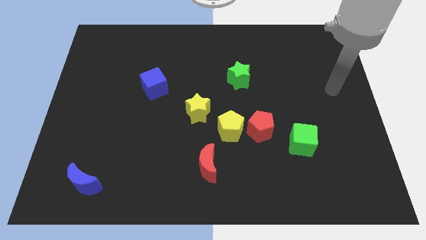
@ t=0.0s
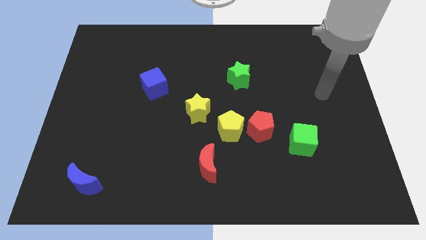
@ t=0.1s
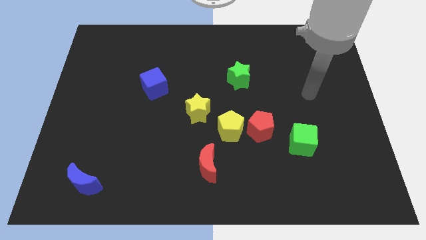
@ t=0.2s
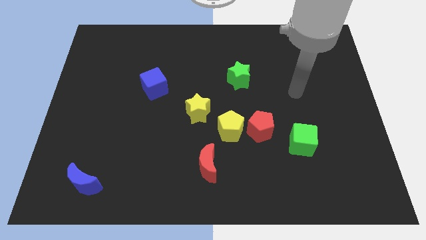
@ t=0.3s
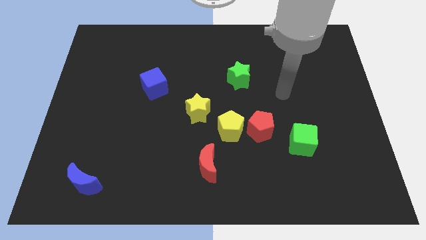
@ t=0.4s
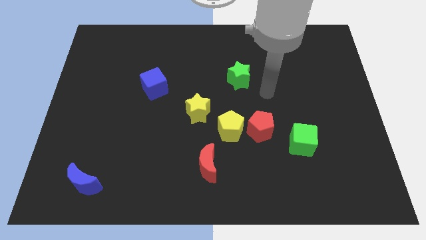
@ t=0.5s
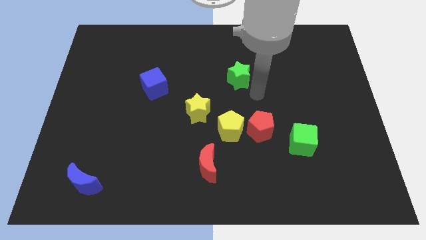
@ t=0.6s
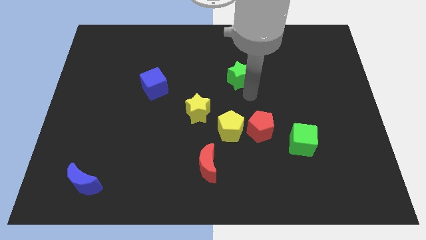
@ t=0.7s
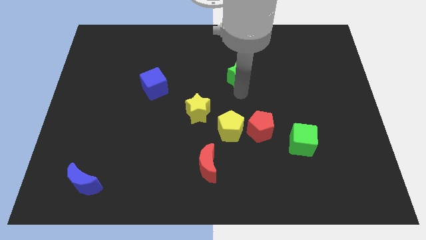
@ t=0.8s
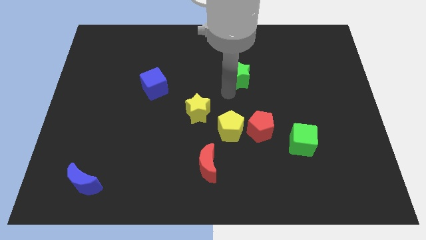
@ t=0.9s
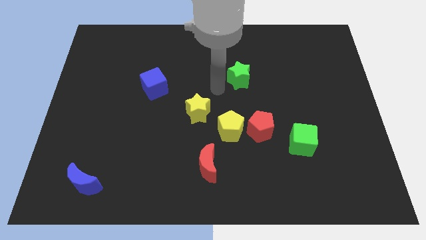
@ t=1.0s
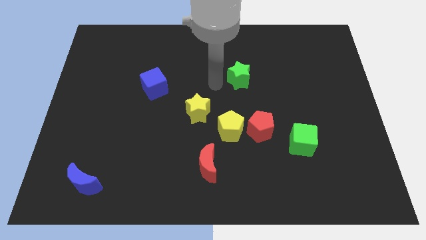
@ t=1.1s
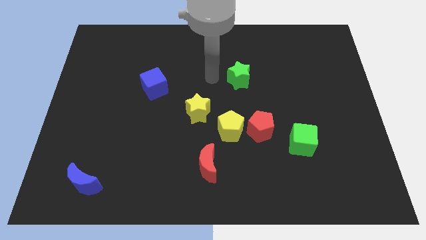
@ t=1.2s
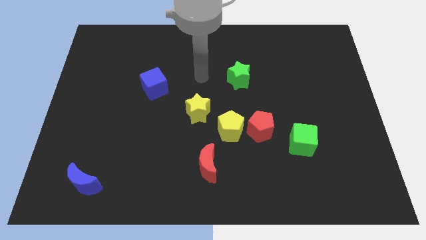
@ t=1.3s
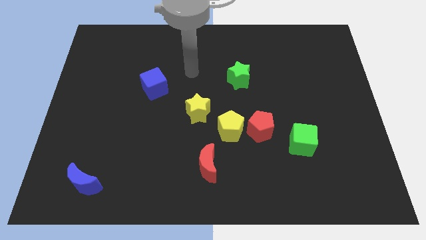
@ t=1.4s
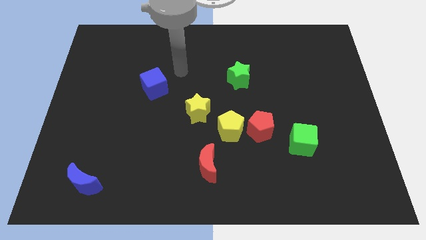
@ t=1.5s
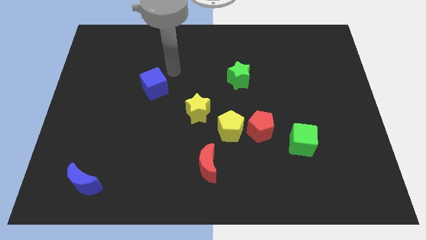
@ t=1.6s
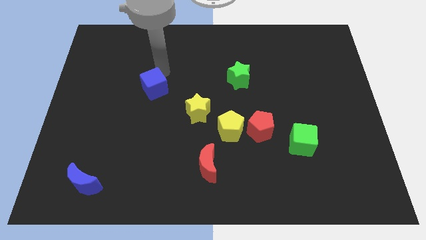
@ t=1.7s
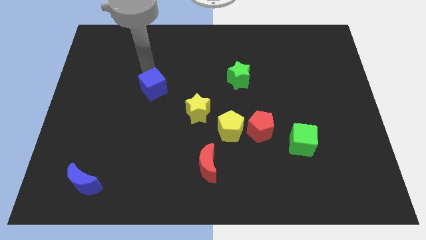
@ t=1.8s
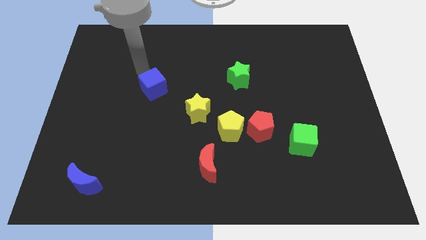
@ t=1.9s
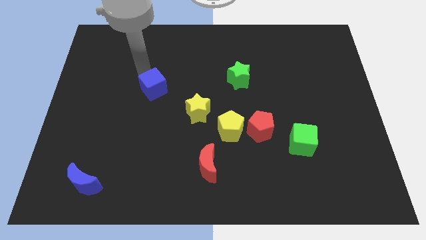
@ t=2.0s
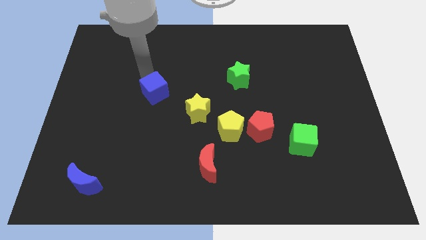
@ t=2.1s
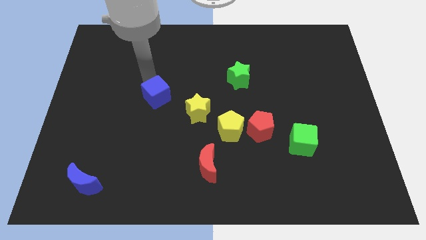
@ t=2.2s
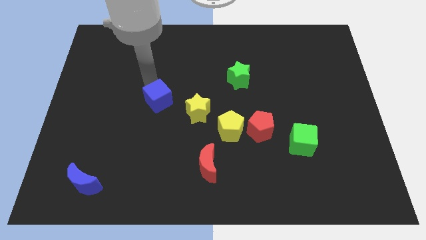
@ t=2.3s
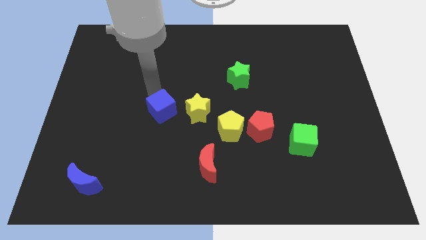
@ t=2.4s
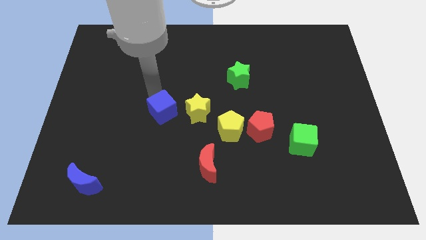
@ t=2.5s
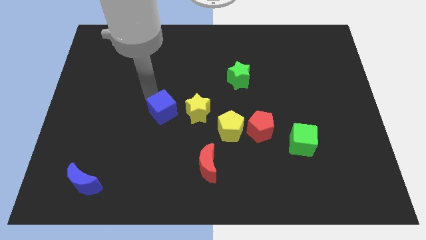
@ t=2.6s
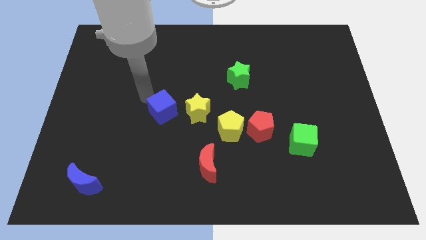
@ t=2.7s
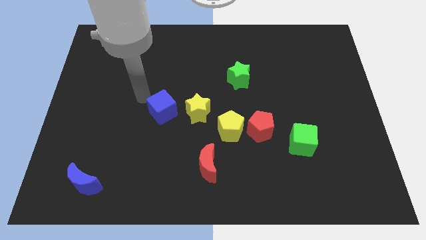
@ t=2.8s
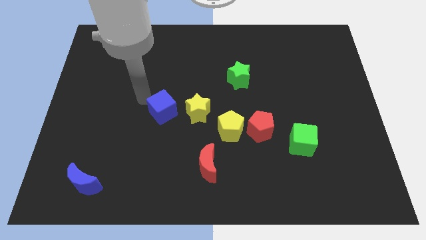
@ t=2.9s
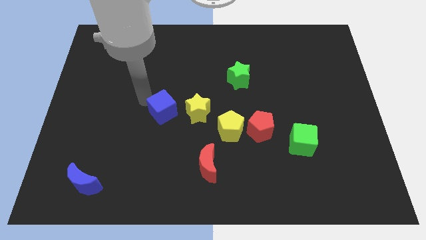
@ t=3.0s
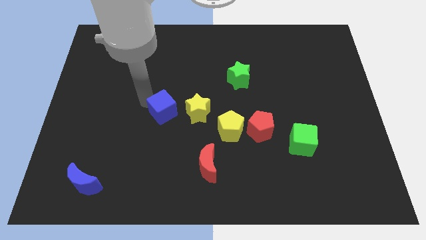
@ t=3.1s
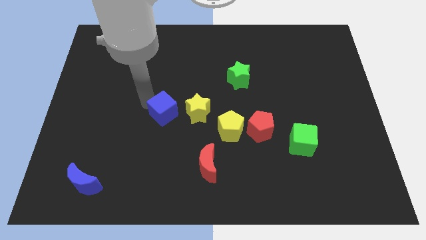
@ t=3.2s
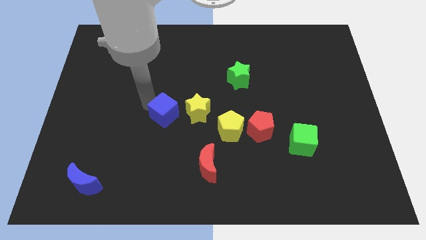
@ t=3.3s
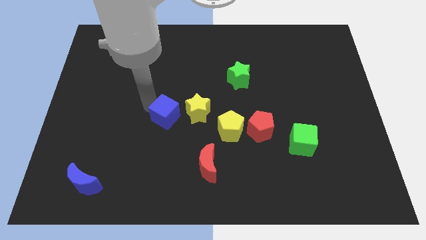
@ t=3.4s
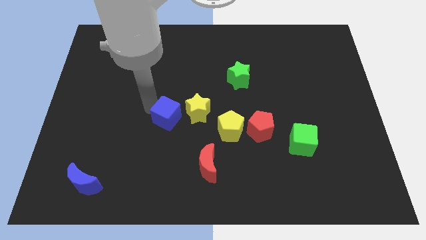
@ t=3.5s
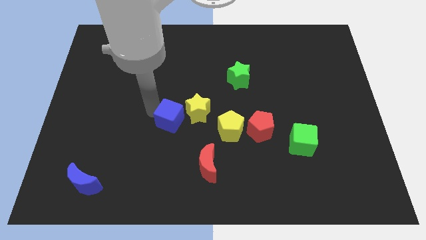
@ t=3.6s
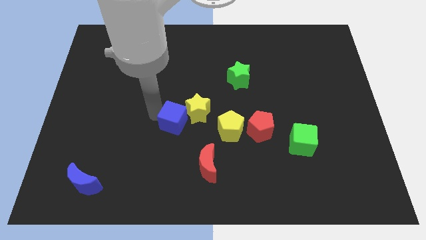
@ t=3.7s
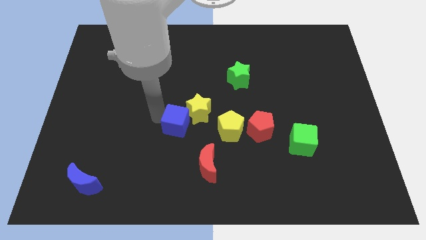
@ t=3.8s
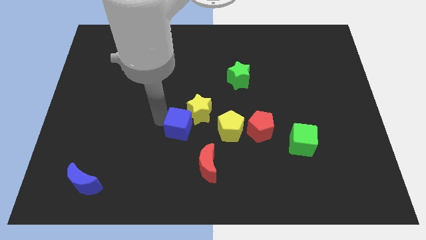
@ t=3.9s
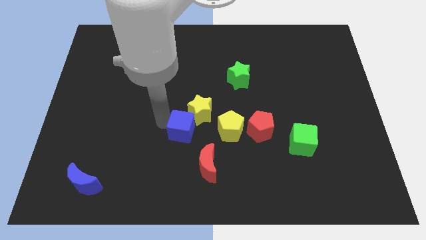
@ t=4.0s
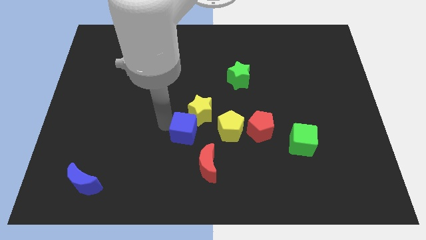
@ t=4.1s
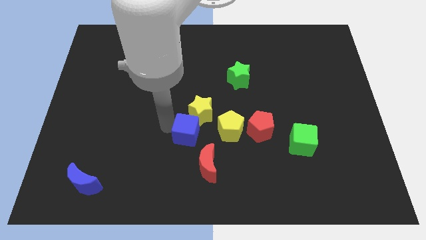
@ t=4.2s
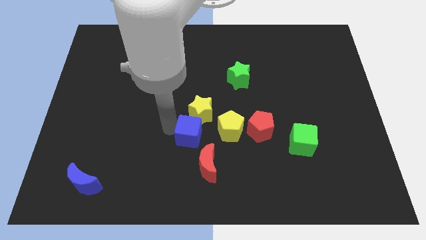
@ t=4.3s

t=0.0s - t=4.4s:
slide the blue cube to the left of the red pentagon

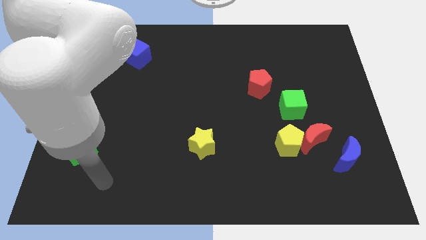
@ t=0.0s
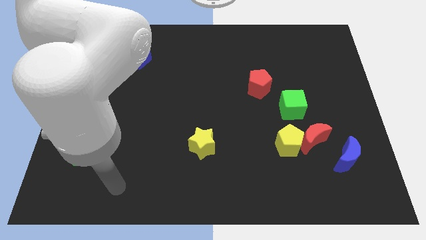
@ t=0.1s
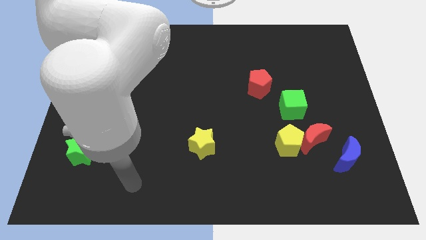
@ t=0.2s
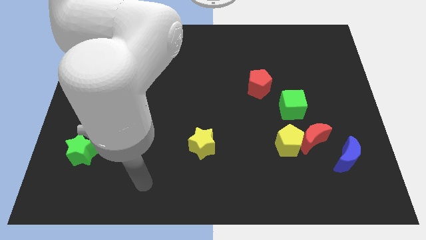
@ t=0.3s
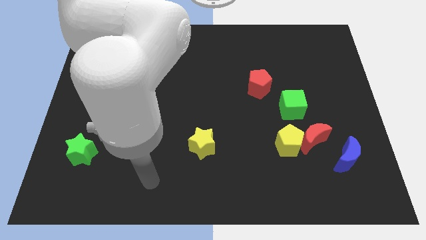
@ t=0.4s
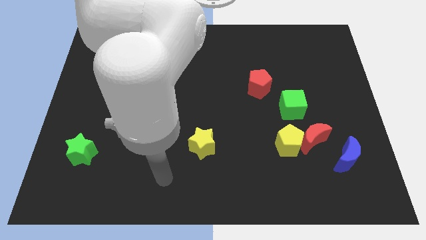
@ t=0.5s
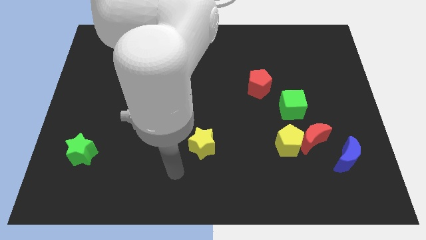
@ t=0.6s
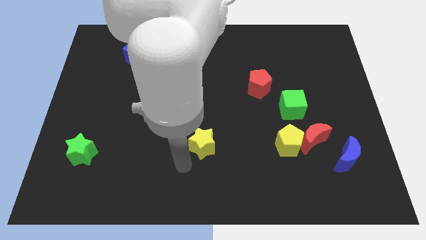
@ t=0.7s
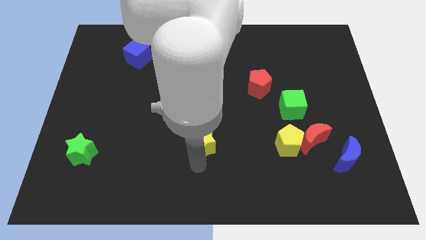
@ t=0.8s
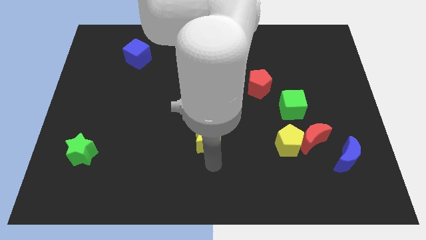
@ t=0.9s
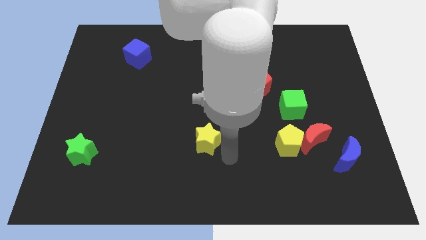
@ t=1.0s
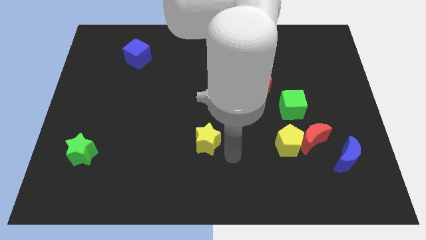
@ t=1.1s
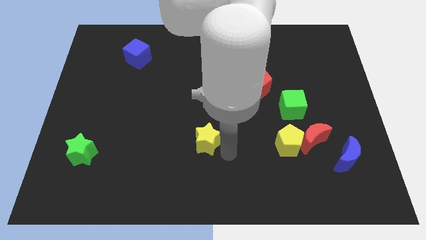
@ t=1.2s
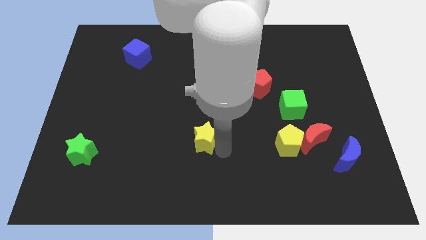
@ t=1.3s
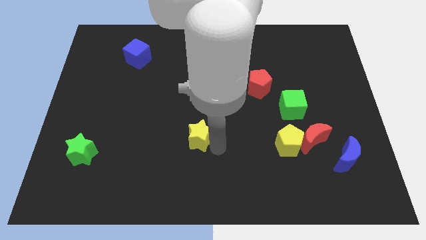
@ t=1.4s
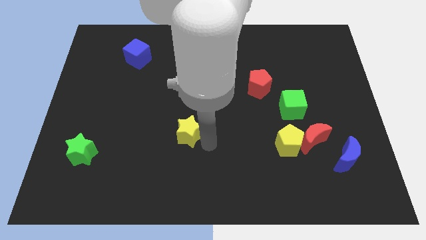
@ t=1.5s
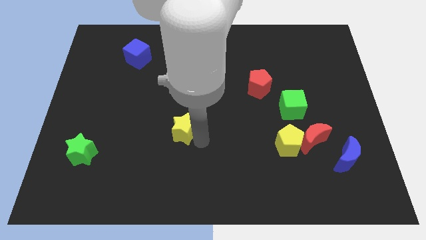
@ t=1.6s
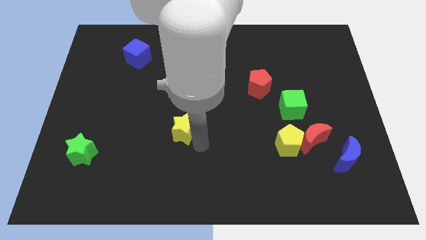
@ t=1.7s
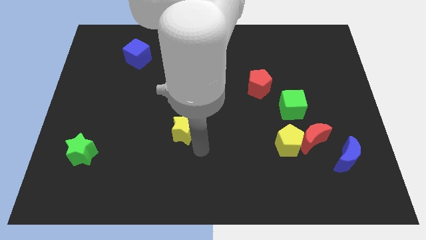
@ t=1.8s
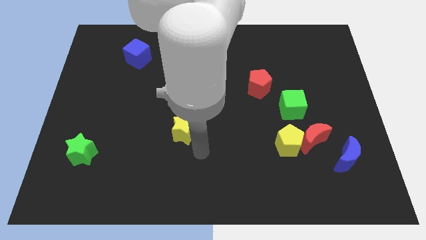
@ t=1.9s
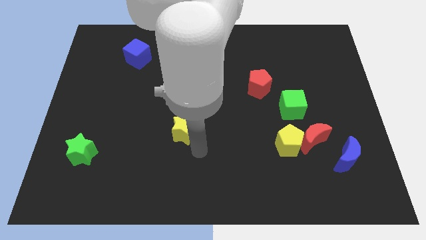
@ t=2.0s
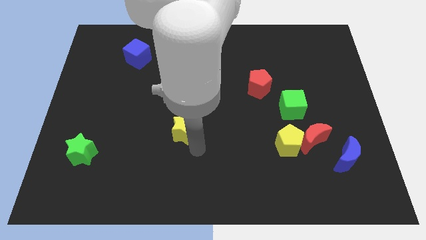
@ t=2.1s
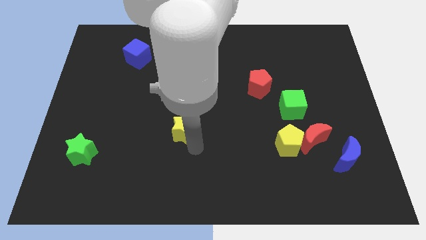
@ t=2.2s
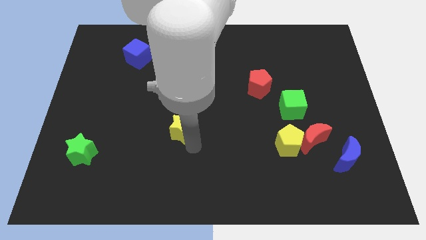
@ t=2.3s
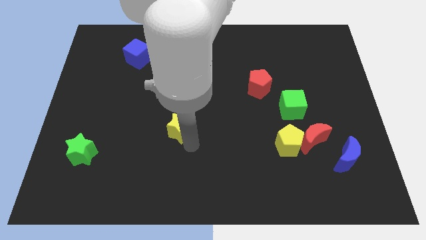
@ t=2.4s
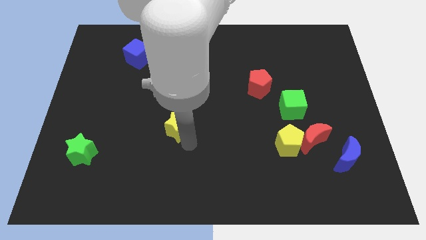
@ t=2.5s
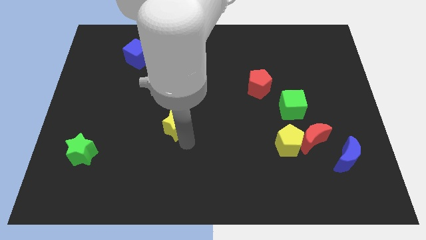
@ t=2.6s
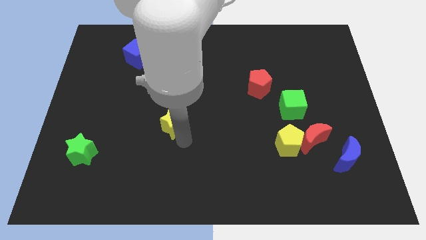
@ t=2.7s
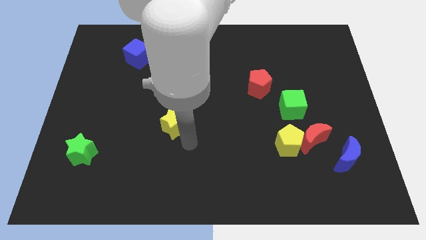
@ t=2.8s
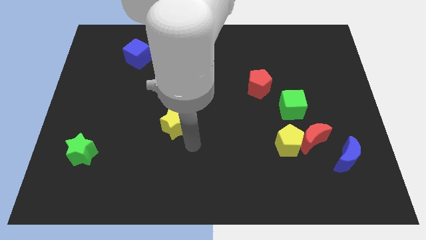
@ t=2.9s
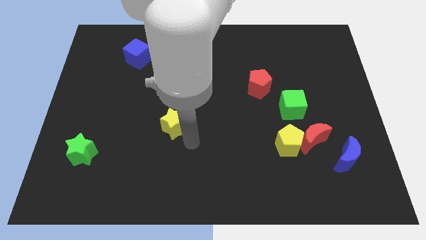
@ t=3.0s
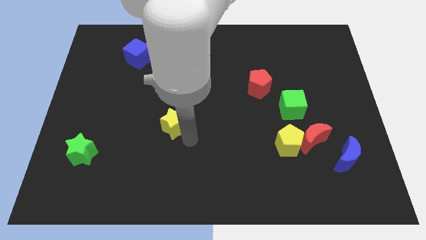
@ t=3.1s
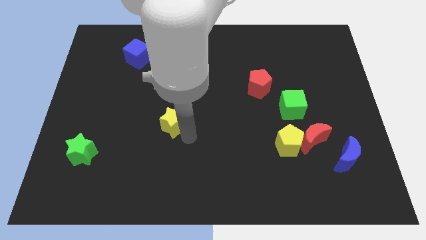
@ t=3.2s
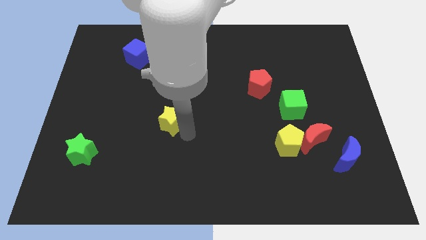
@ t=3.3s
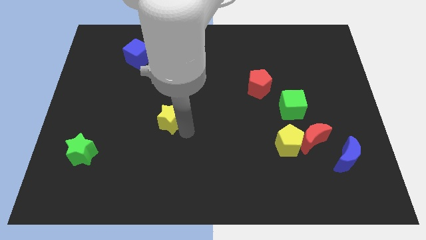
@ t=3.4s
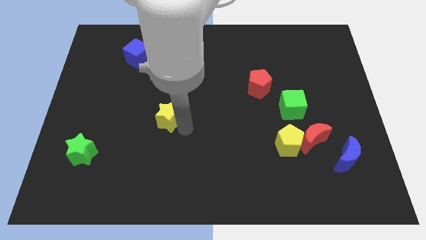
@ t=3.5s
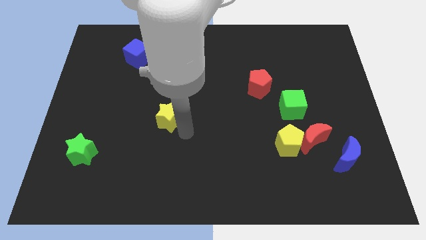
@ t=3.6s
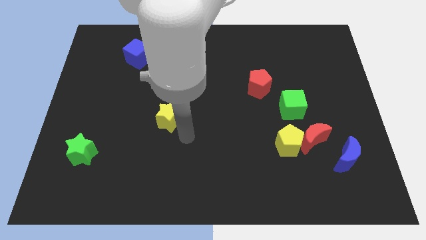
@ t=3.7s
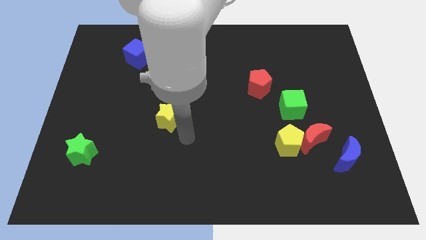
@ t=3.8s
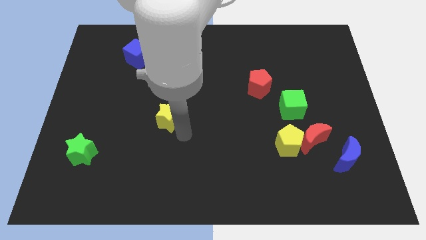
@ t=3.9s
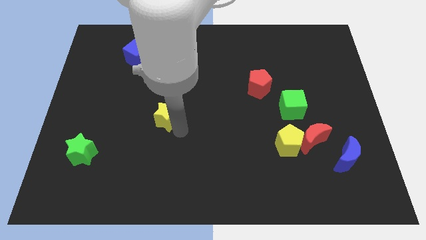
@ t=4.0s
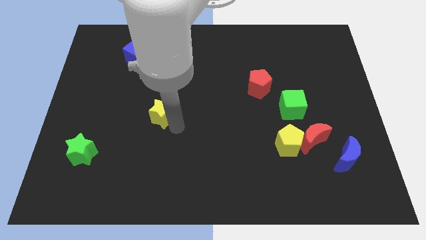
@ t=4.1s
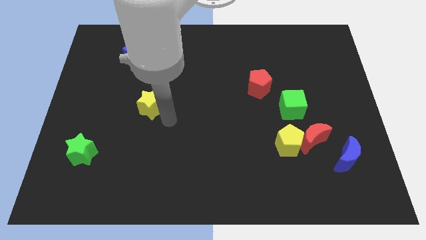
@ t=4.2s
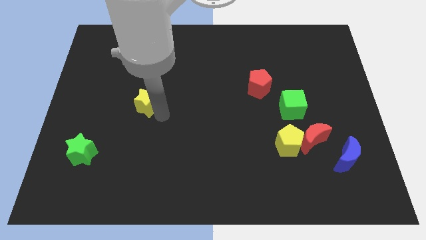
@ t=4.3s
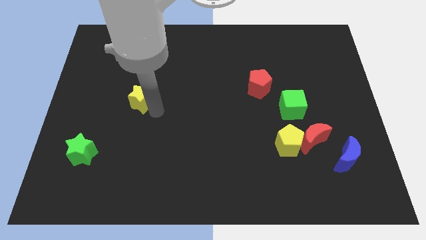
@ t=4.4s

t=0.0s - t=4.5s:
push the yellow star below the blue cube
